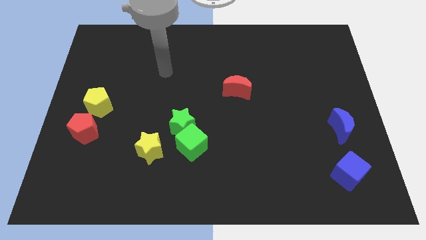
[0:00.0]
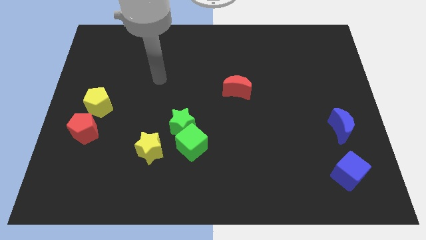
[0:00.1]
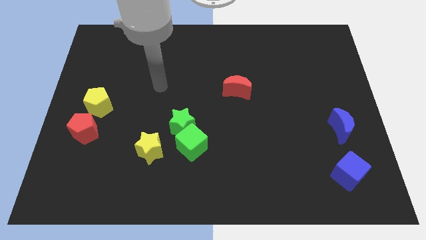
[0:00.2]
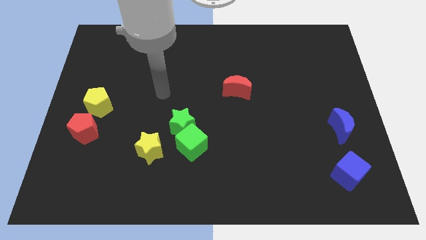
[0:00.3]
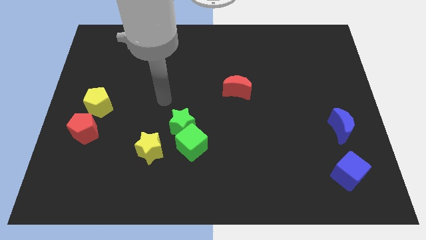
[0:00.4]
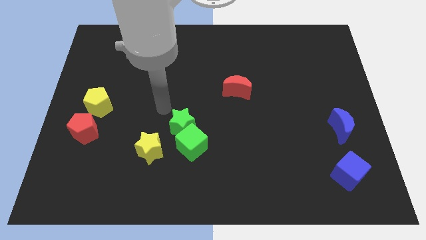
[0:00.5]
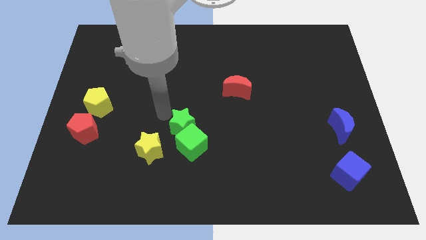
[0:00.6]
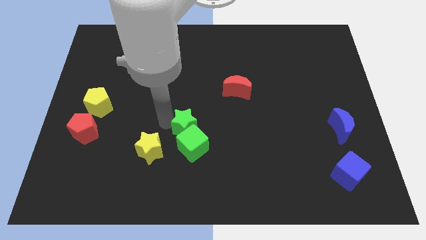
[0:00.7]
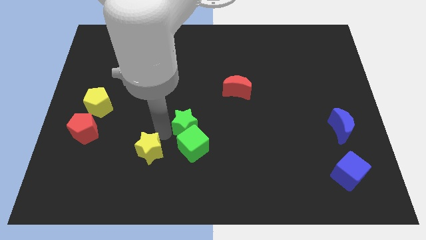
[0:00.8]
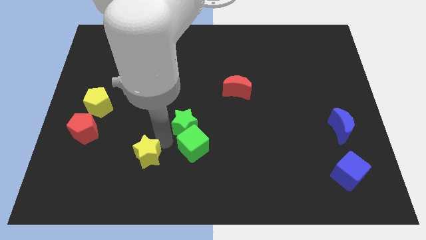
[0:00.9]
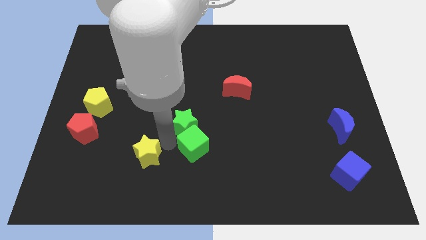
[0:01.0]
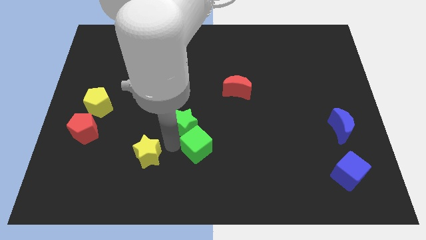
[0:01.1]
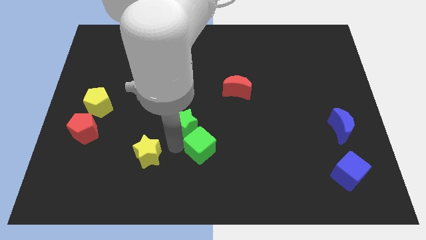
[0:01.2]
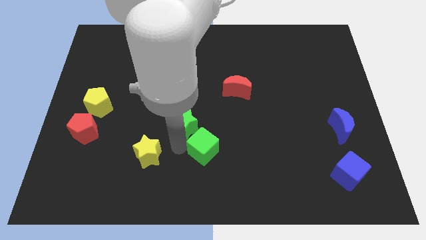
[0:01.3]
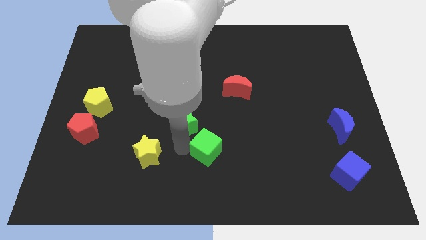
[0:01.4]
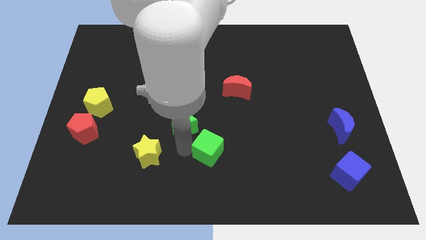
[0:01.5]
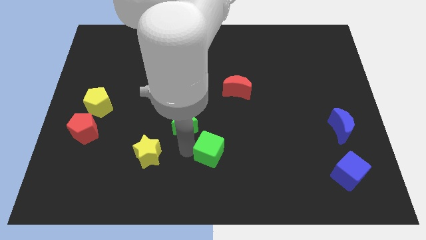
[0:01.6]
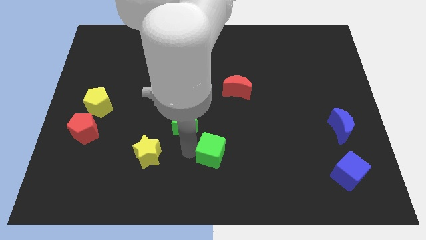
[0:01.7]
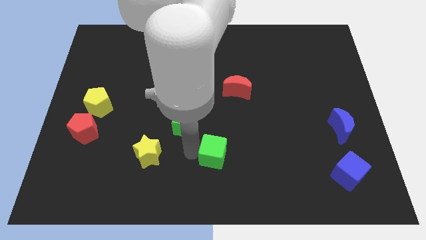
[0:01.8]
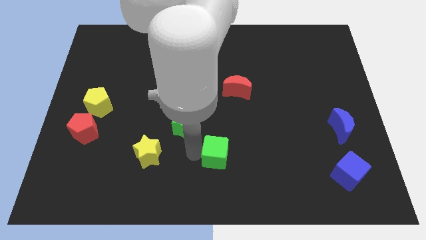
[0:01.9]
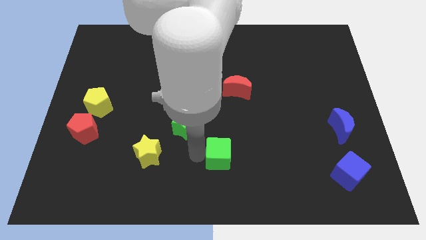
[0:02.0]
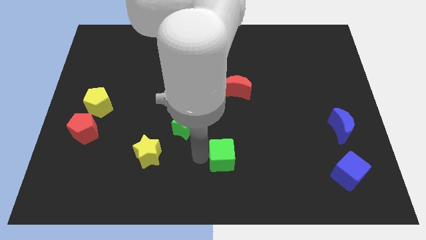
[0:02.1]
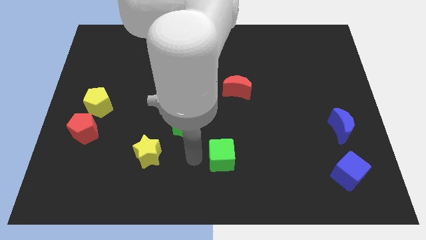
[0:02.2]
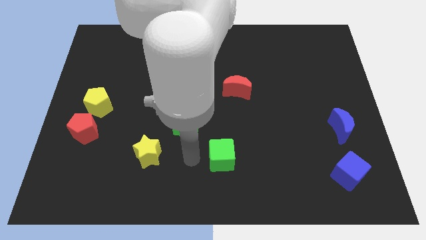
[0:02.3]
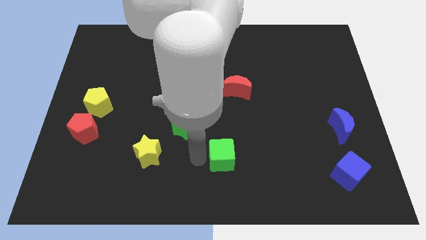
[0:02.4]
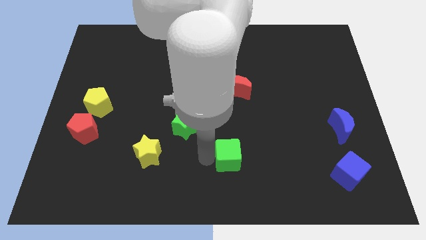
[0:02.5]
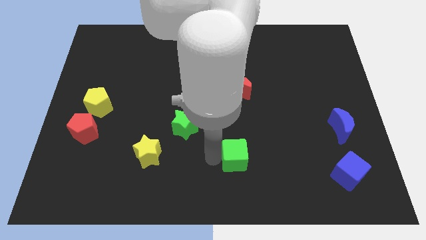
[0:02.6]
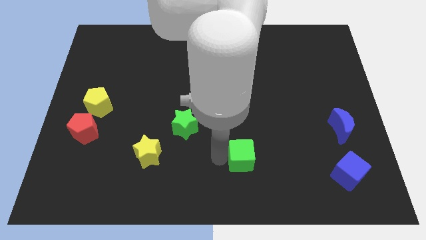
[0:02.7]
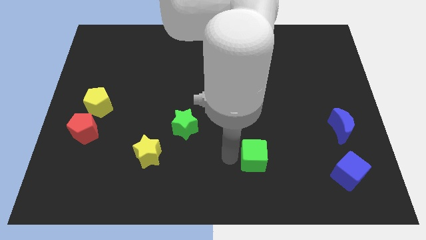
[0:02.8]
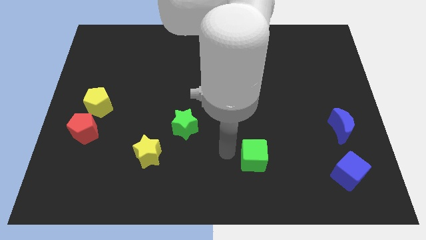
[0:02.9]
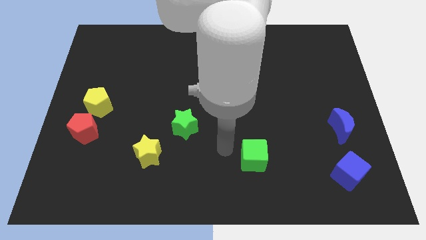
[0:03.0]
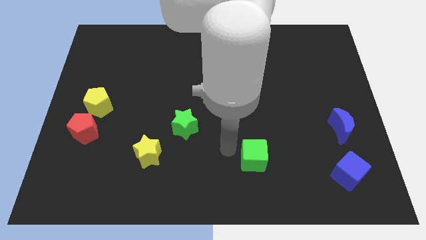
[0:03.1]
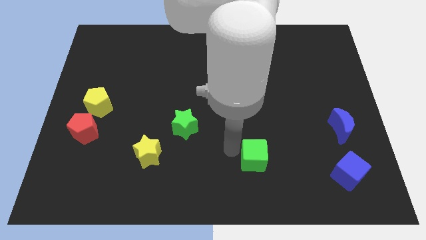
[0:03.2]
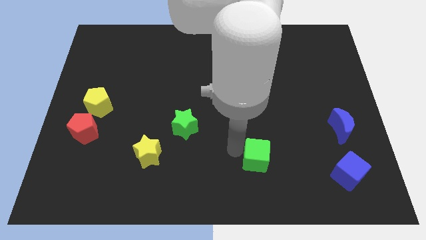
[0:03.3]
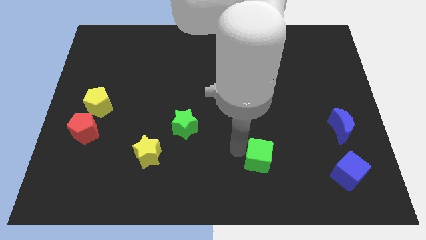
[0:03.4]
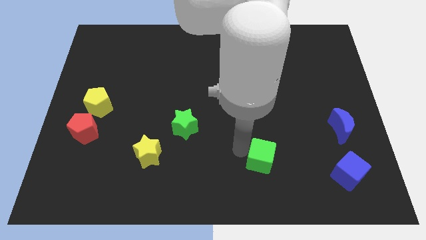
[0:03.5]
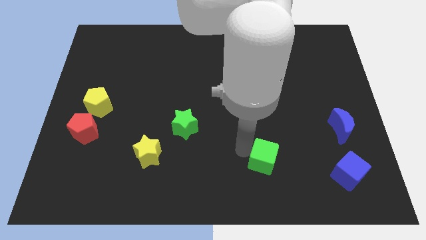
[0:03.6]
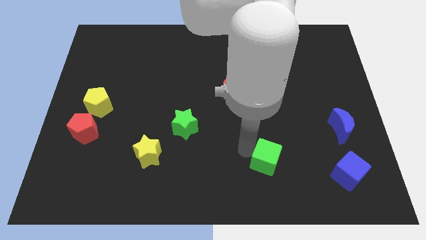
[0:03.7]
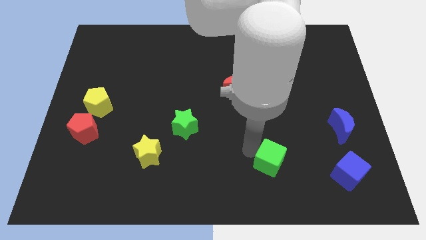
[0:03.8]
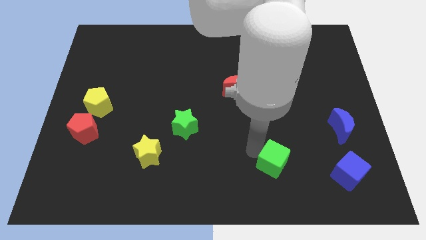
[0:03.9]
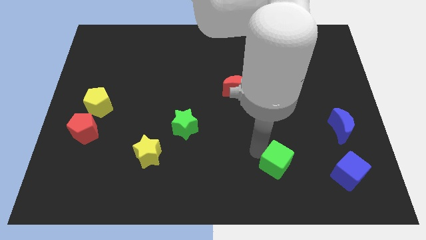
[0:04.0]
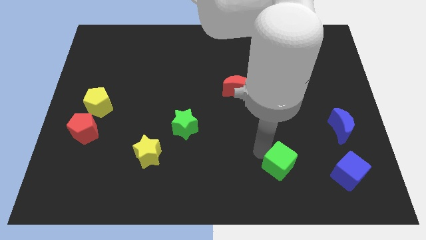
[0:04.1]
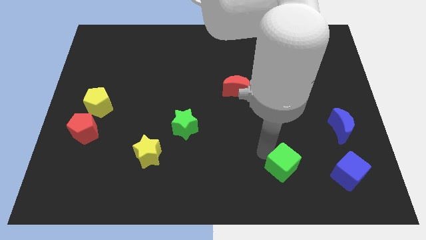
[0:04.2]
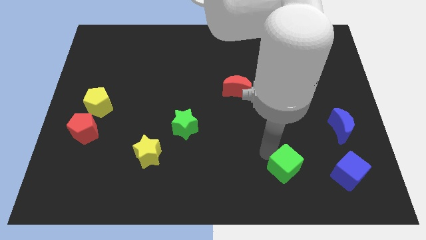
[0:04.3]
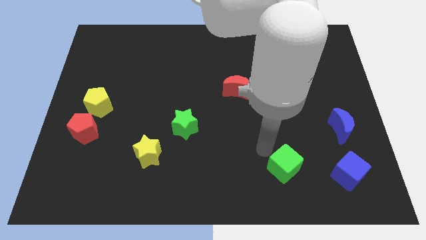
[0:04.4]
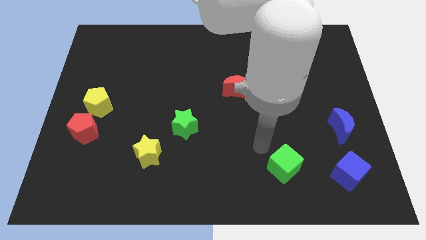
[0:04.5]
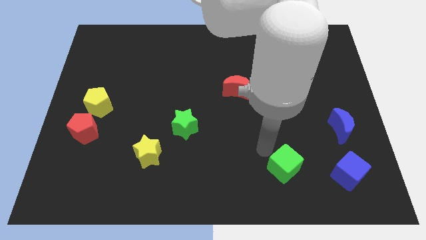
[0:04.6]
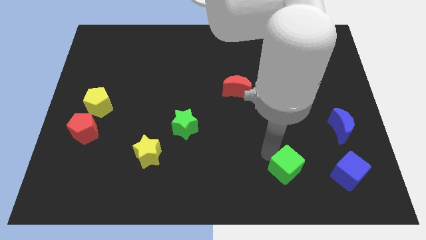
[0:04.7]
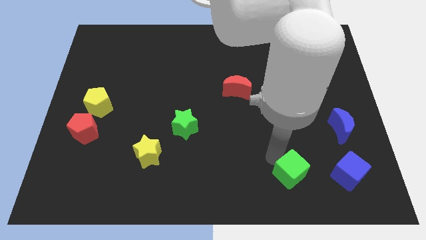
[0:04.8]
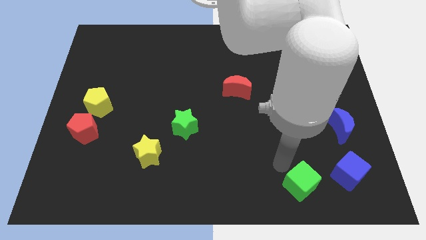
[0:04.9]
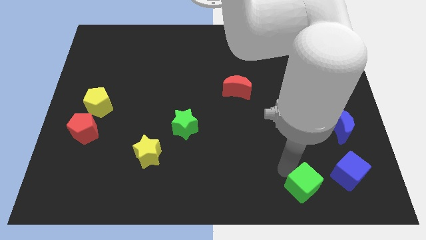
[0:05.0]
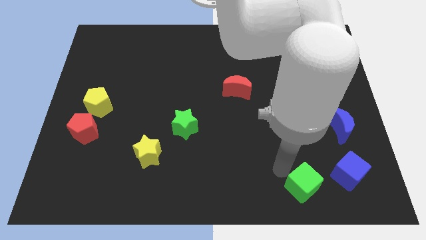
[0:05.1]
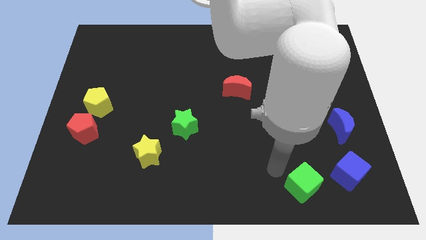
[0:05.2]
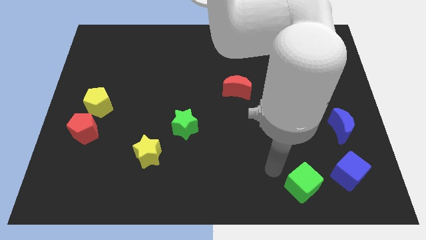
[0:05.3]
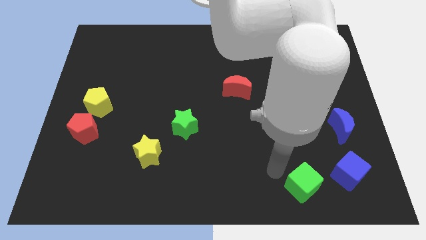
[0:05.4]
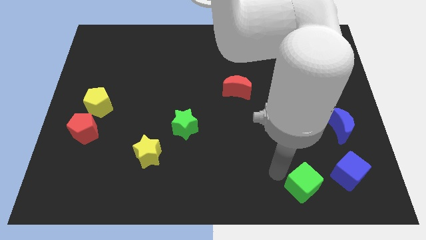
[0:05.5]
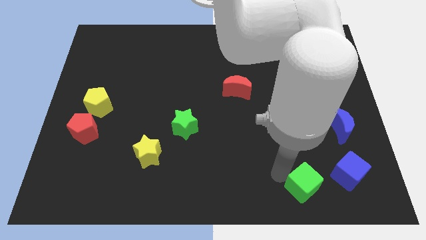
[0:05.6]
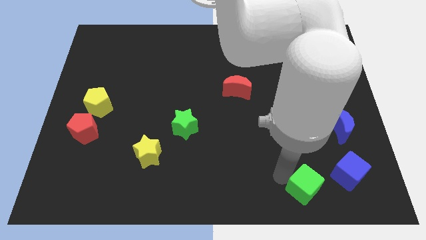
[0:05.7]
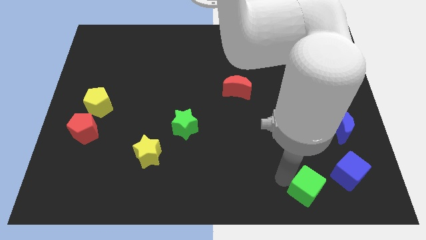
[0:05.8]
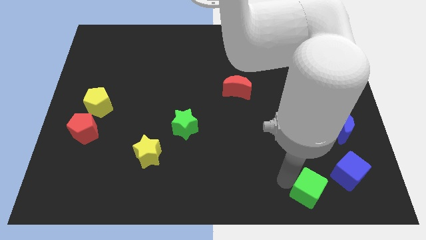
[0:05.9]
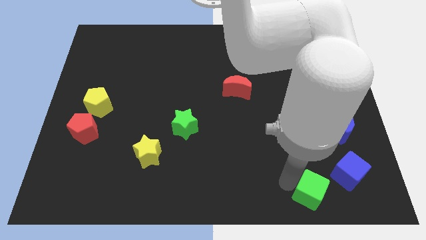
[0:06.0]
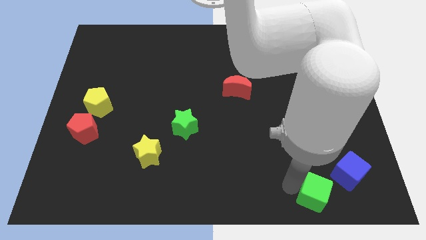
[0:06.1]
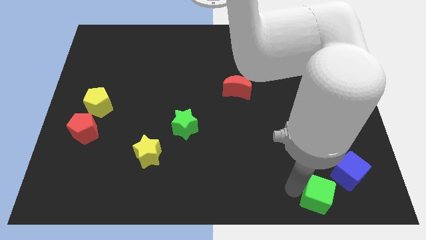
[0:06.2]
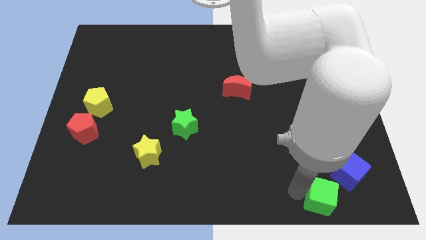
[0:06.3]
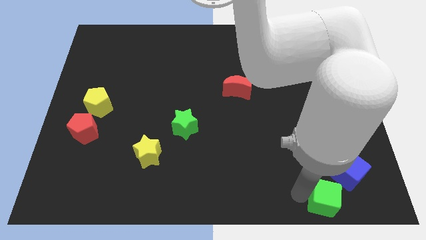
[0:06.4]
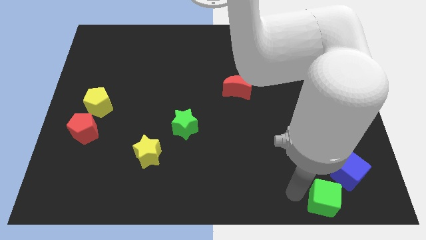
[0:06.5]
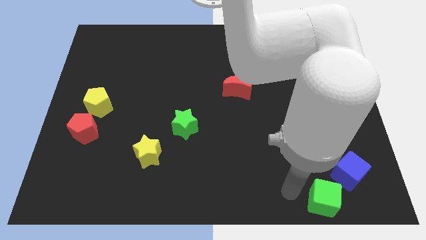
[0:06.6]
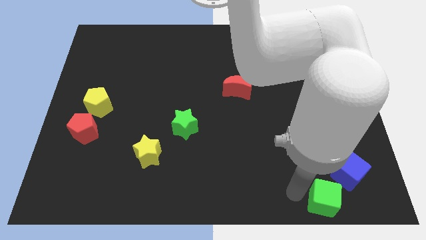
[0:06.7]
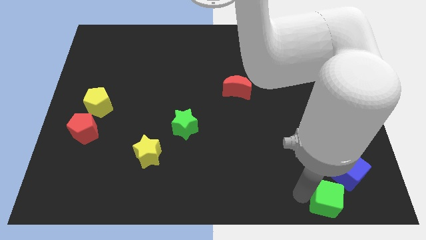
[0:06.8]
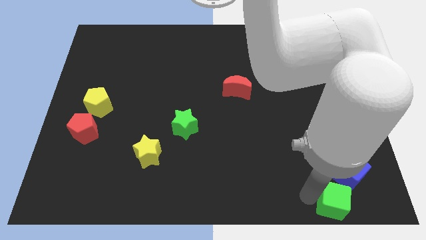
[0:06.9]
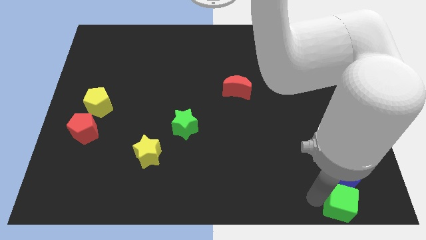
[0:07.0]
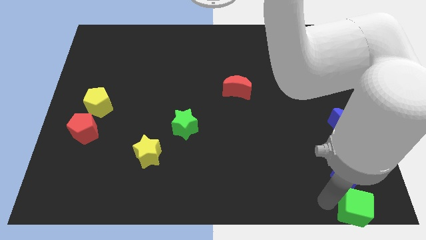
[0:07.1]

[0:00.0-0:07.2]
slide the green cube to the bottom right

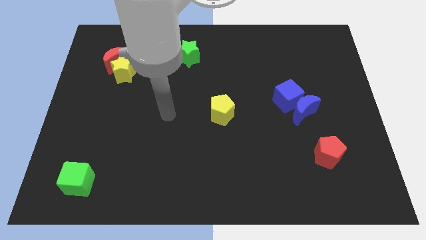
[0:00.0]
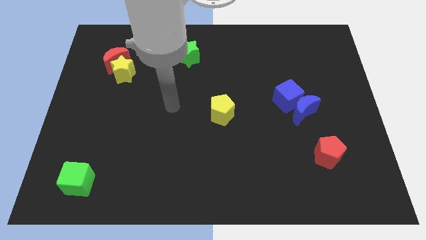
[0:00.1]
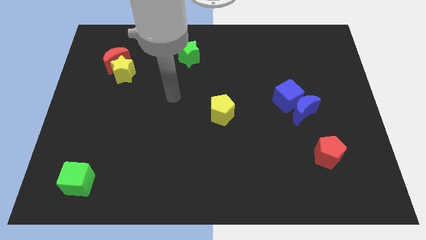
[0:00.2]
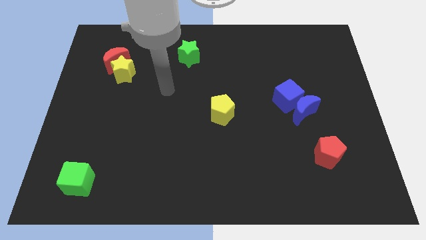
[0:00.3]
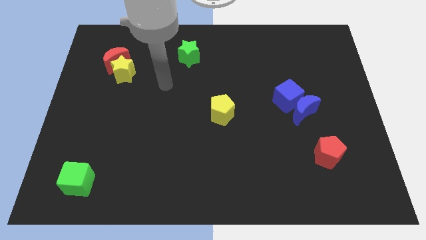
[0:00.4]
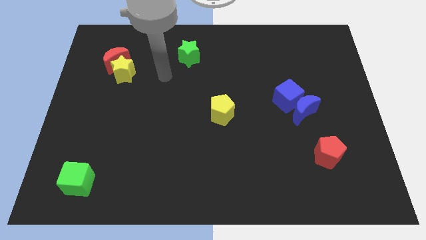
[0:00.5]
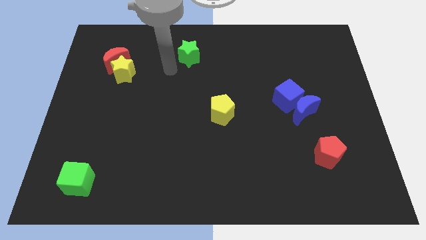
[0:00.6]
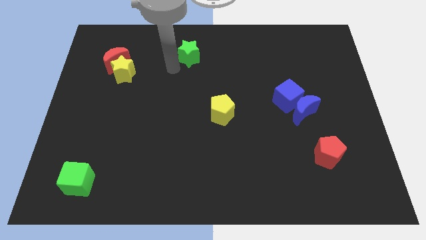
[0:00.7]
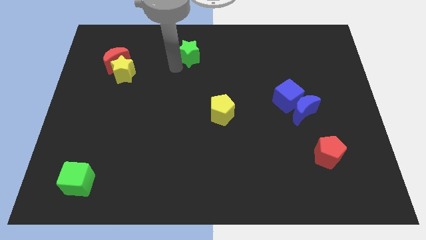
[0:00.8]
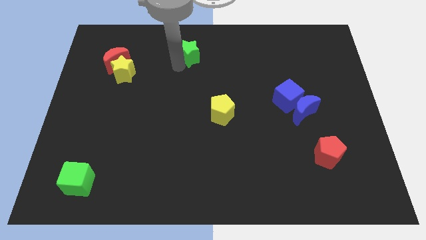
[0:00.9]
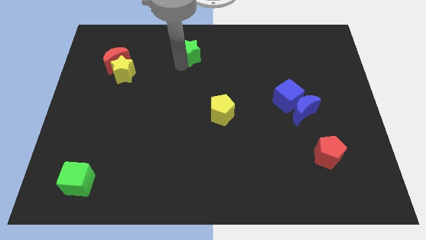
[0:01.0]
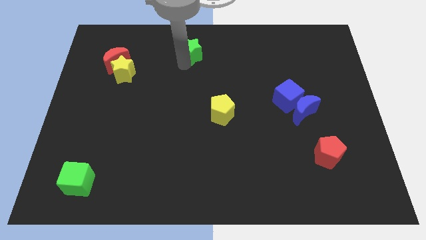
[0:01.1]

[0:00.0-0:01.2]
slide the green star to the towards your base
